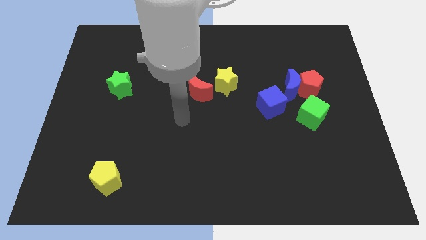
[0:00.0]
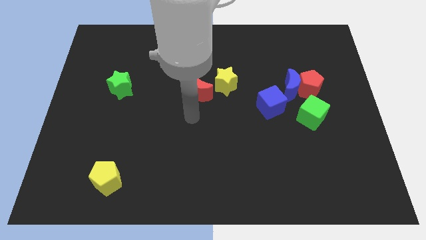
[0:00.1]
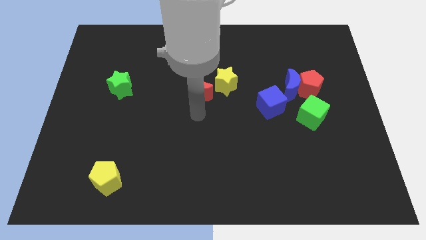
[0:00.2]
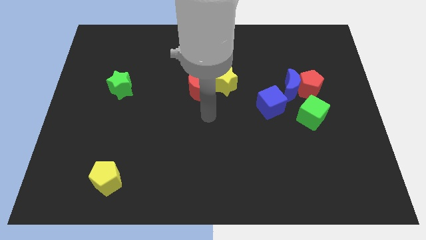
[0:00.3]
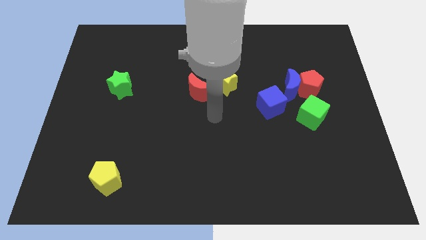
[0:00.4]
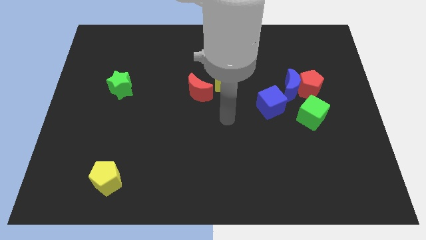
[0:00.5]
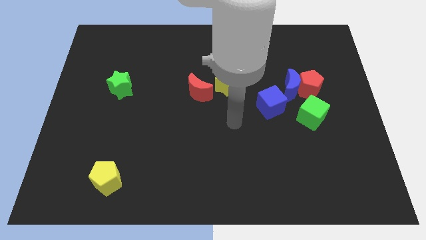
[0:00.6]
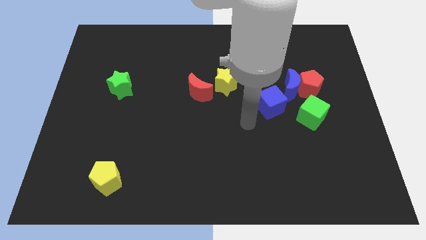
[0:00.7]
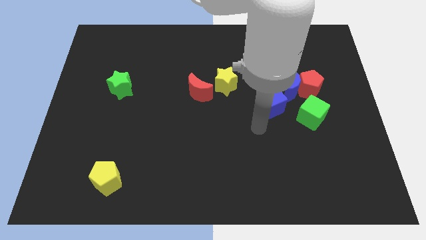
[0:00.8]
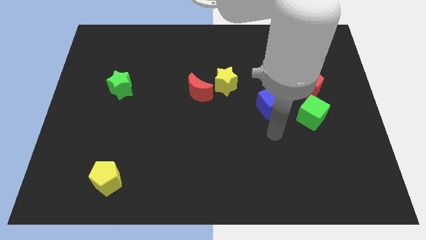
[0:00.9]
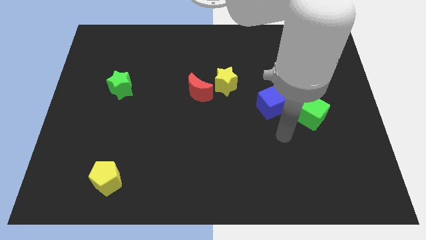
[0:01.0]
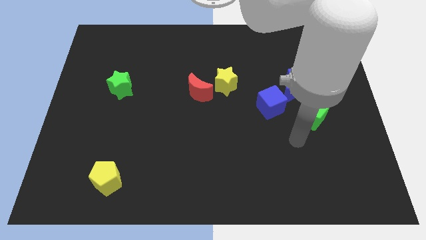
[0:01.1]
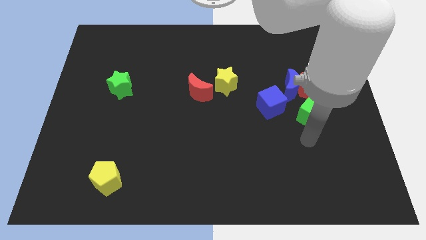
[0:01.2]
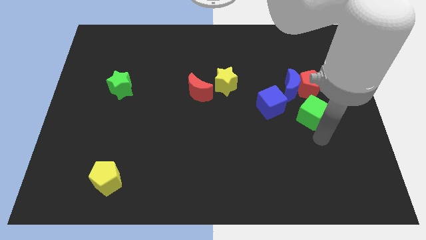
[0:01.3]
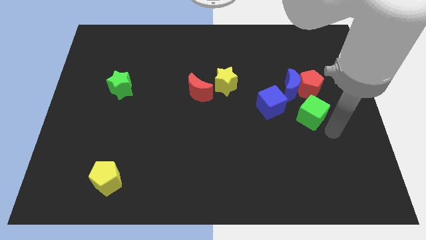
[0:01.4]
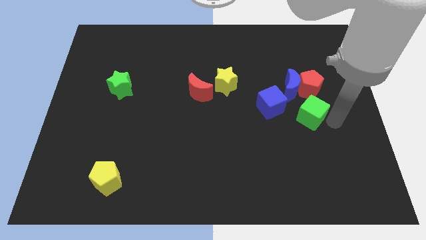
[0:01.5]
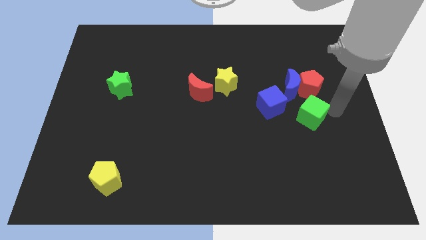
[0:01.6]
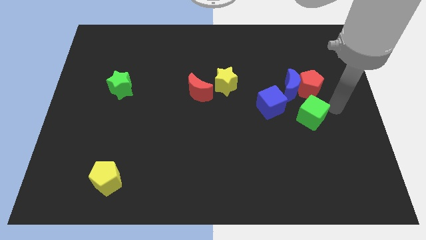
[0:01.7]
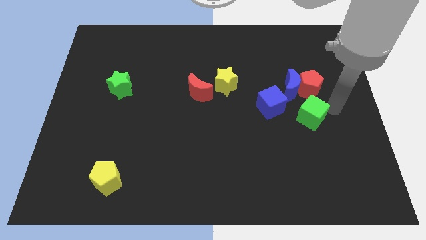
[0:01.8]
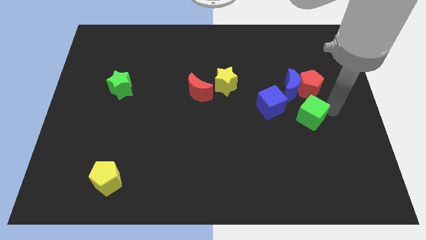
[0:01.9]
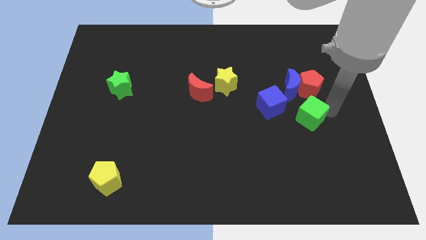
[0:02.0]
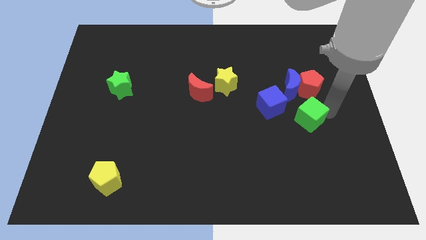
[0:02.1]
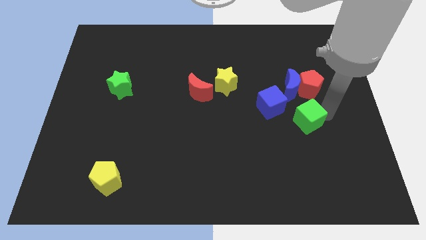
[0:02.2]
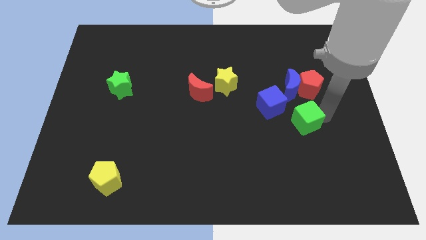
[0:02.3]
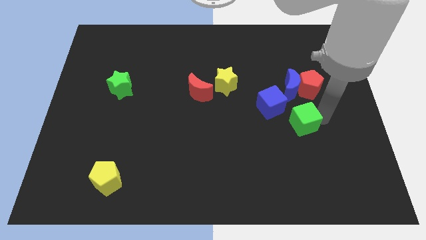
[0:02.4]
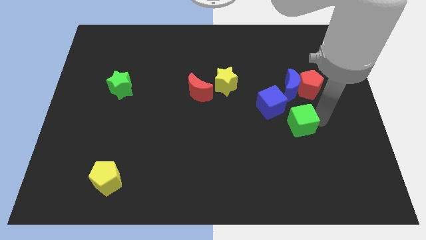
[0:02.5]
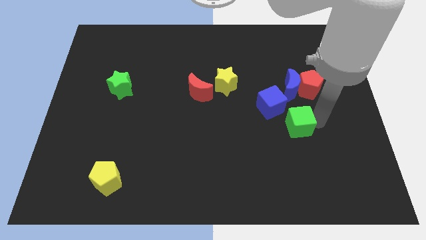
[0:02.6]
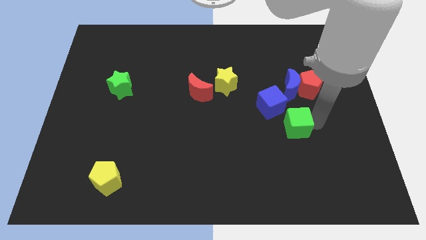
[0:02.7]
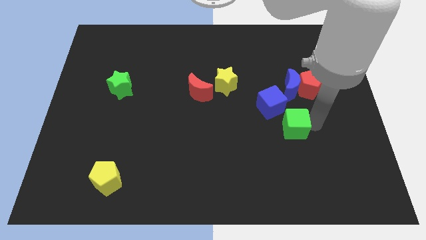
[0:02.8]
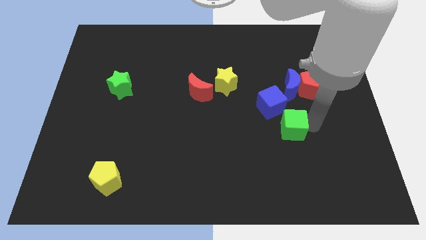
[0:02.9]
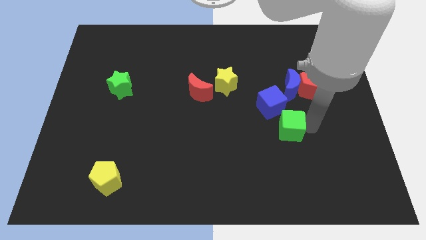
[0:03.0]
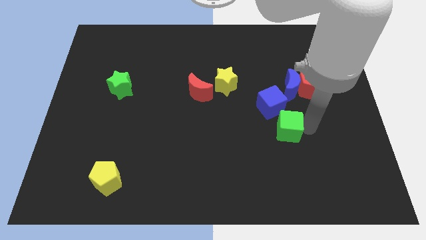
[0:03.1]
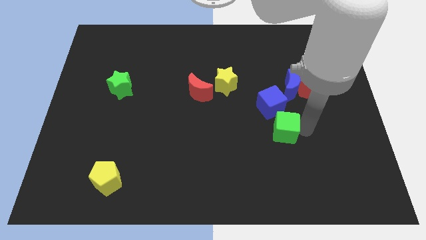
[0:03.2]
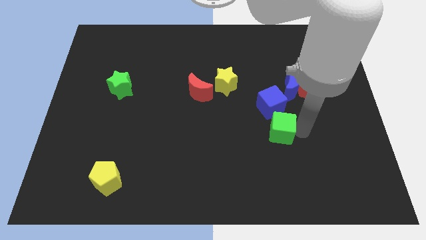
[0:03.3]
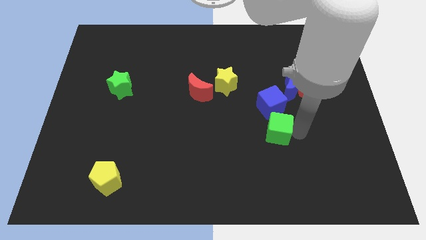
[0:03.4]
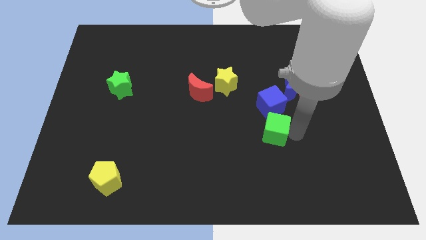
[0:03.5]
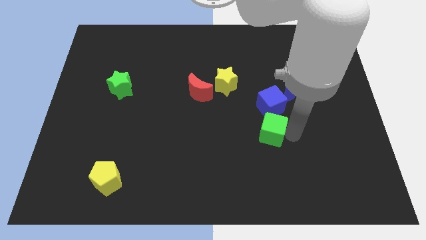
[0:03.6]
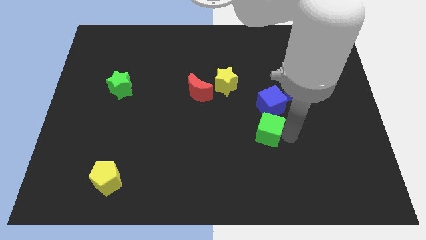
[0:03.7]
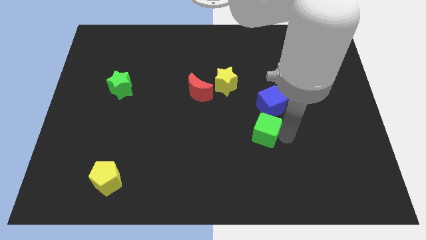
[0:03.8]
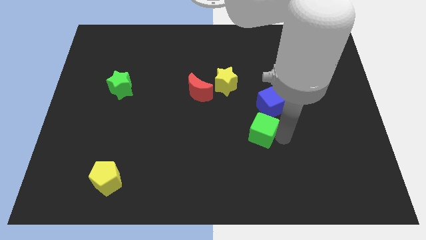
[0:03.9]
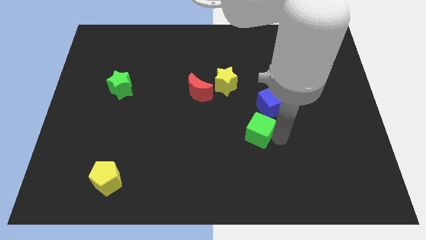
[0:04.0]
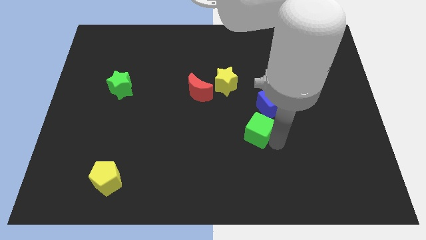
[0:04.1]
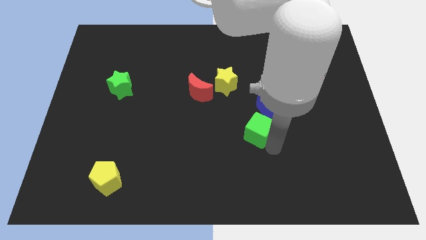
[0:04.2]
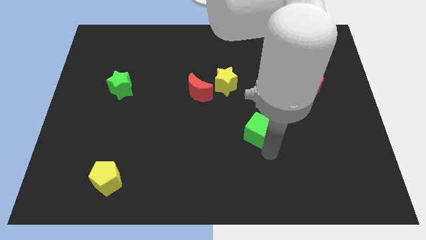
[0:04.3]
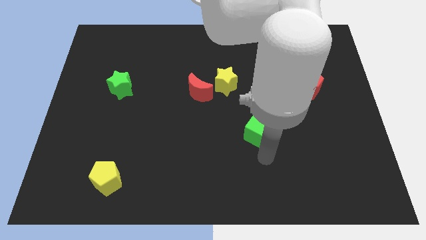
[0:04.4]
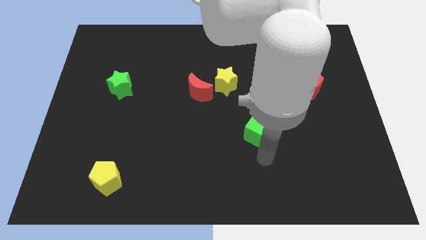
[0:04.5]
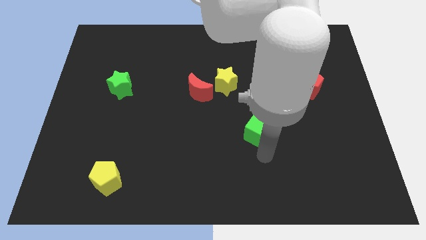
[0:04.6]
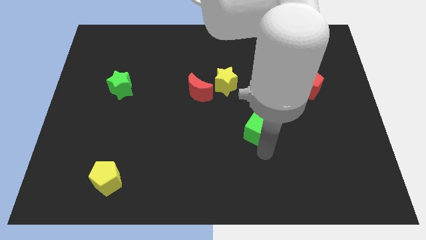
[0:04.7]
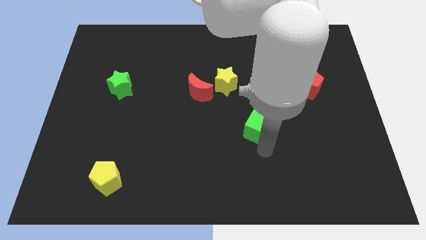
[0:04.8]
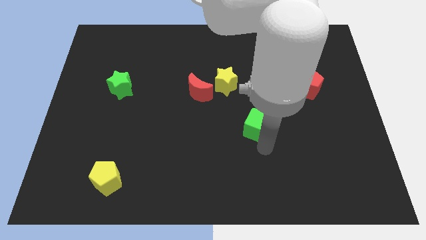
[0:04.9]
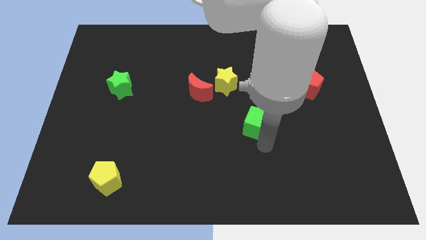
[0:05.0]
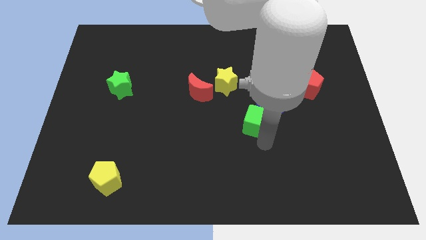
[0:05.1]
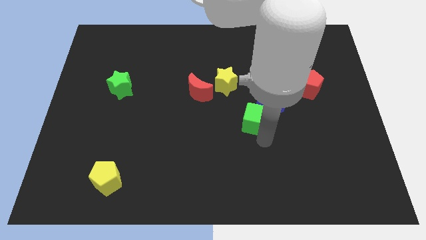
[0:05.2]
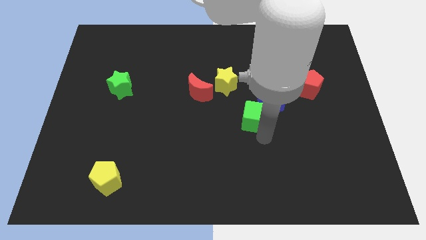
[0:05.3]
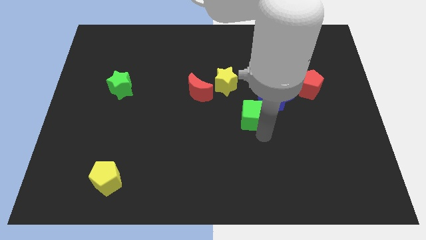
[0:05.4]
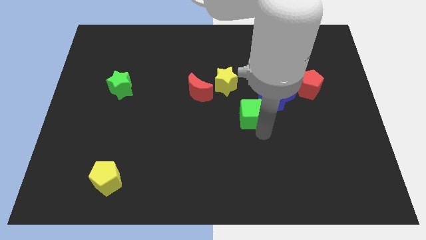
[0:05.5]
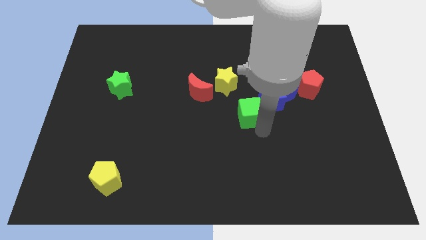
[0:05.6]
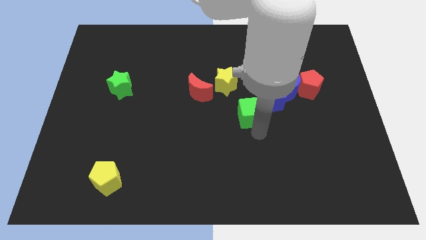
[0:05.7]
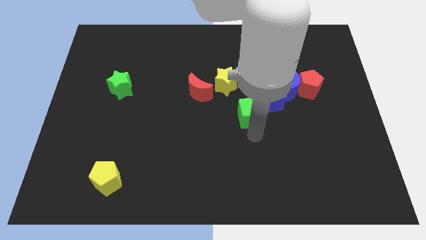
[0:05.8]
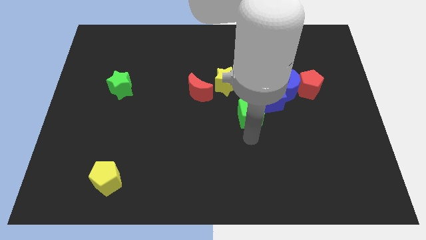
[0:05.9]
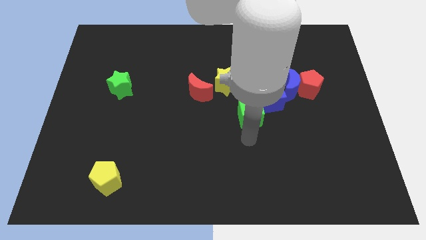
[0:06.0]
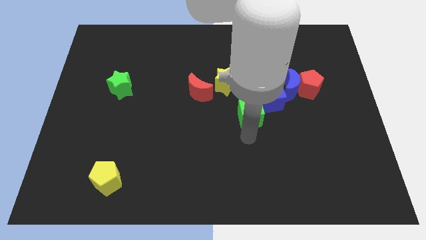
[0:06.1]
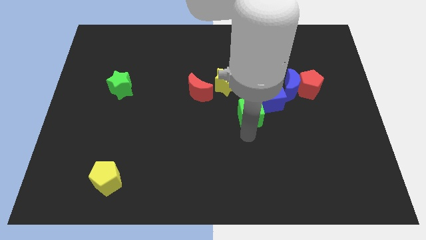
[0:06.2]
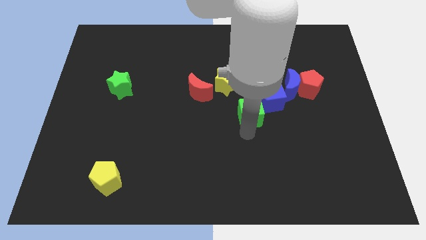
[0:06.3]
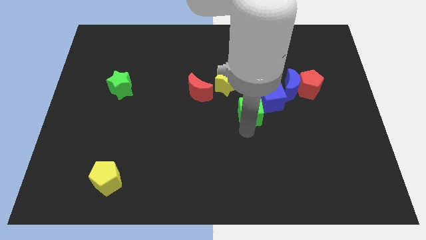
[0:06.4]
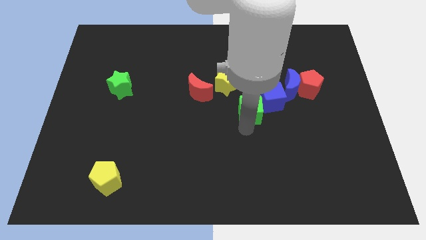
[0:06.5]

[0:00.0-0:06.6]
push the green cube diagonally up and to the left a little

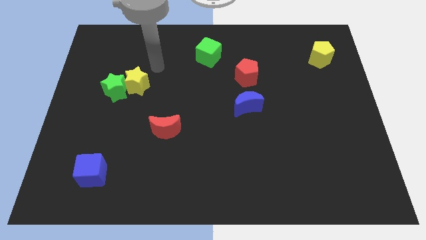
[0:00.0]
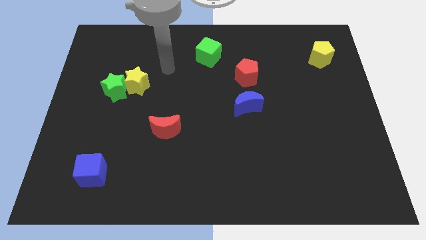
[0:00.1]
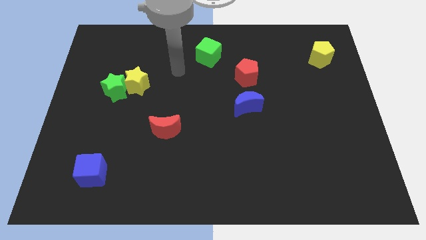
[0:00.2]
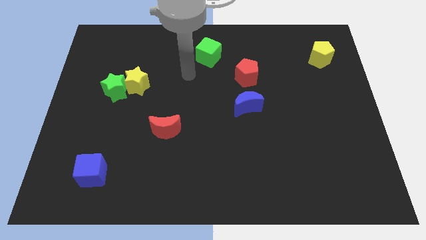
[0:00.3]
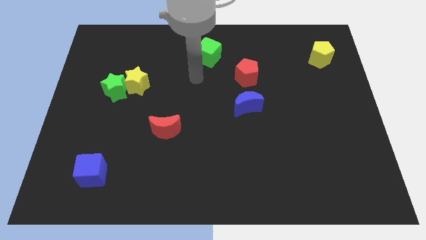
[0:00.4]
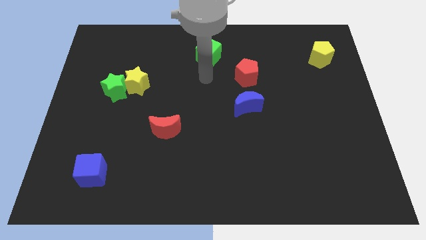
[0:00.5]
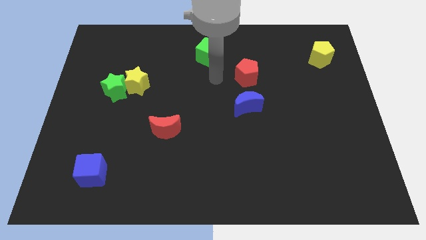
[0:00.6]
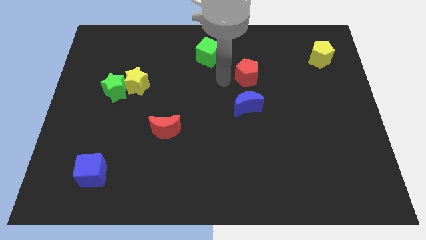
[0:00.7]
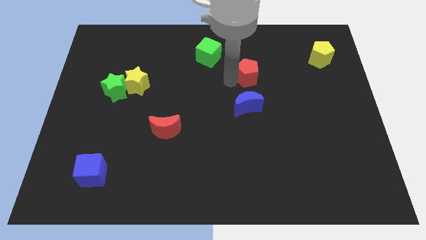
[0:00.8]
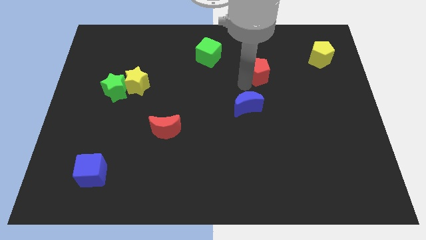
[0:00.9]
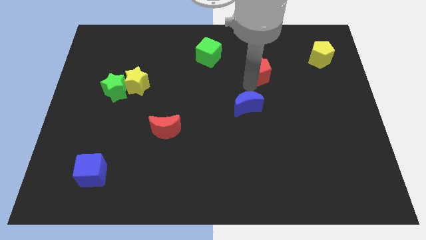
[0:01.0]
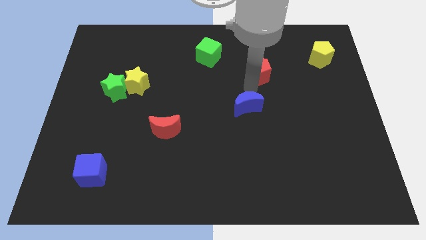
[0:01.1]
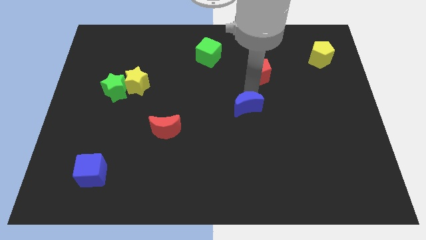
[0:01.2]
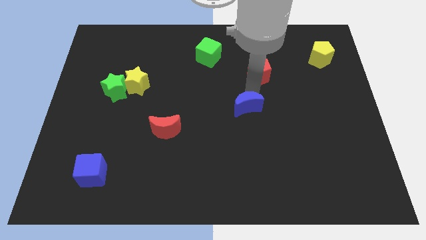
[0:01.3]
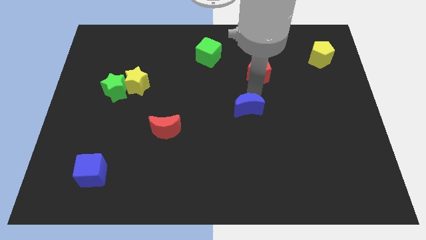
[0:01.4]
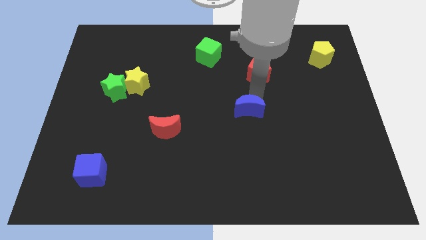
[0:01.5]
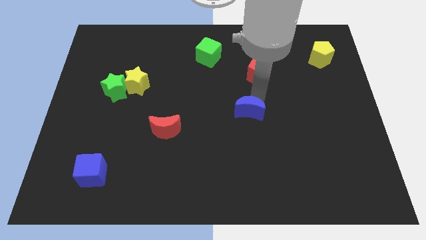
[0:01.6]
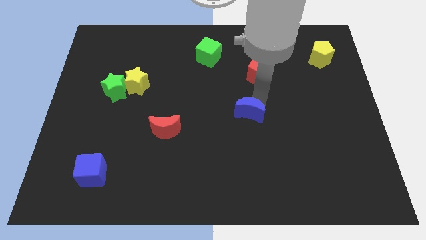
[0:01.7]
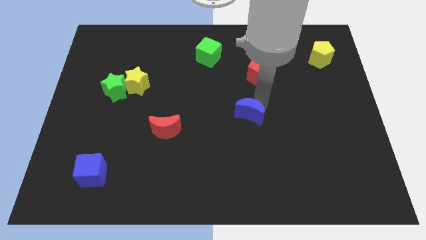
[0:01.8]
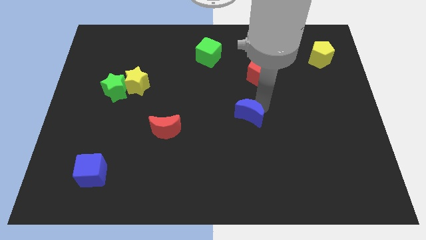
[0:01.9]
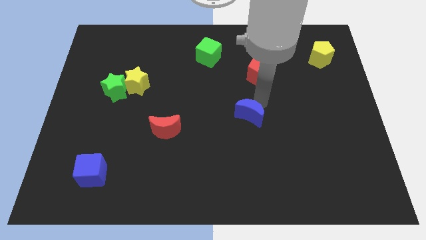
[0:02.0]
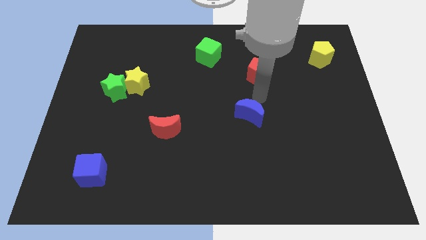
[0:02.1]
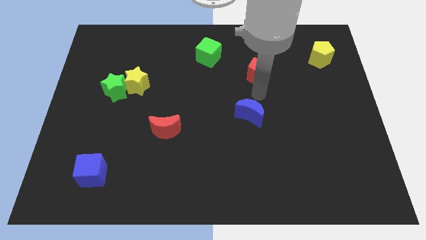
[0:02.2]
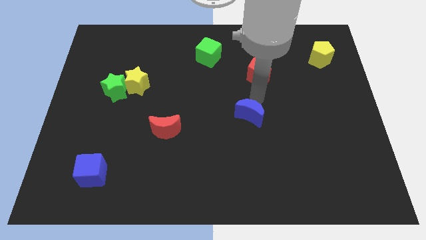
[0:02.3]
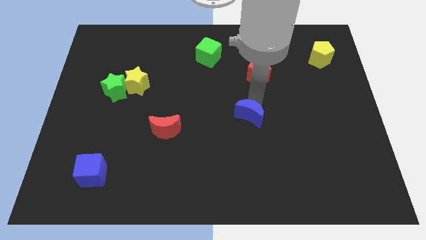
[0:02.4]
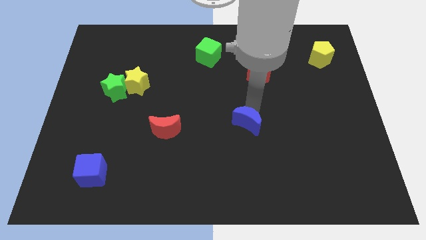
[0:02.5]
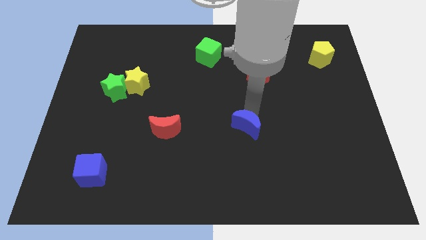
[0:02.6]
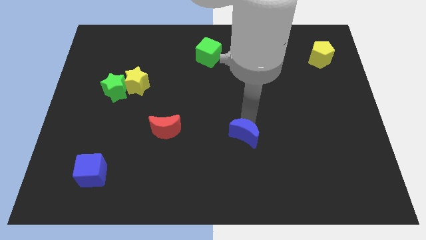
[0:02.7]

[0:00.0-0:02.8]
slightly move the blue moon downwards
